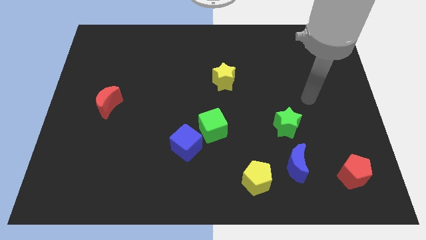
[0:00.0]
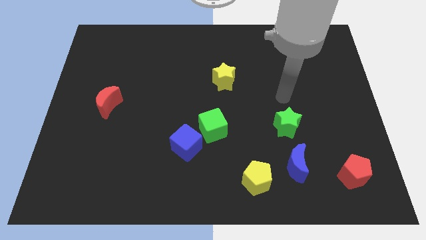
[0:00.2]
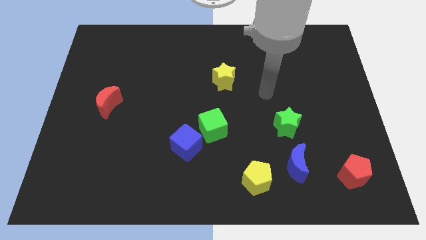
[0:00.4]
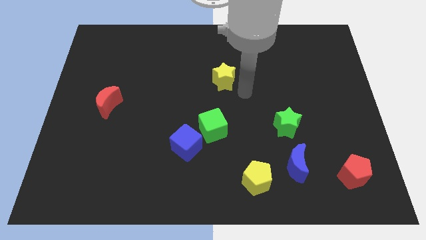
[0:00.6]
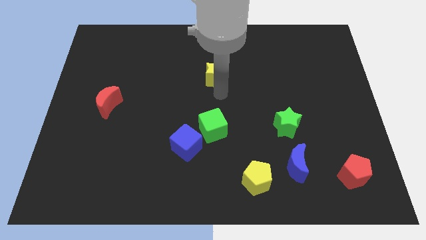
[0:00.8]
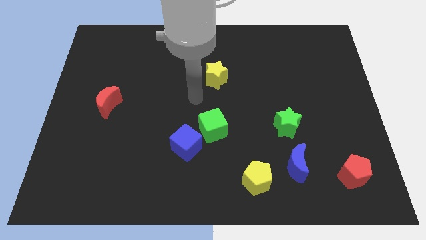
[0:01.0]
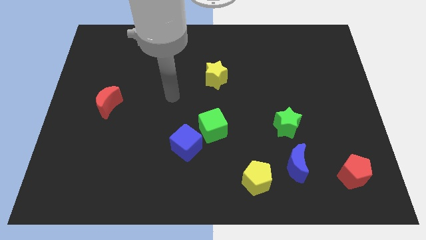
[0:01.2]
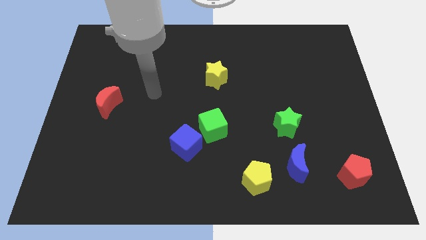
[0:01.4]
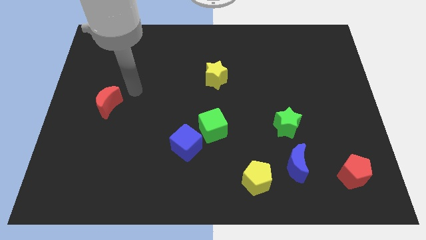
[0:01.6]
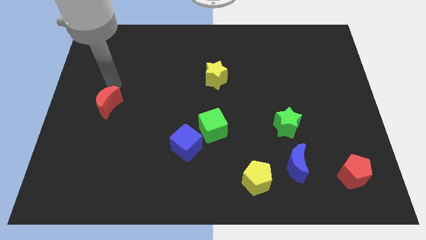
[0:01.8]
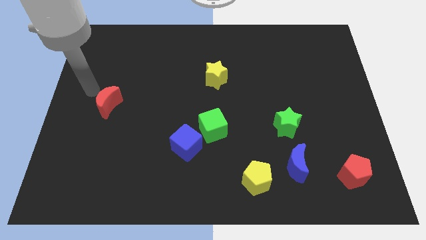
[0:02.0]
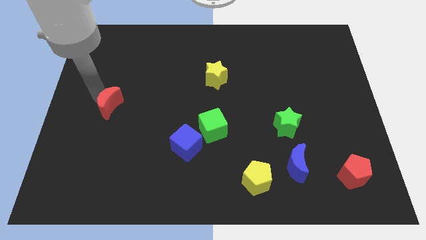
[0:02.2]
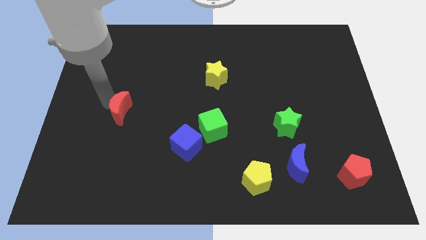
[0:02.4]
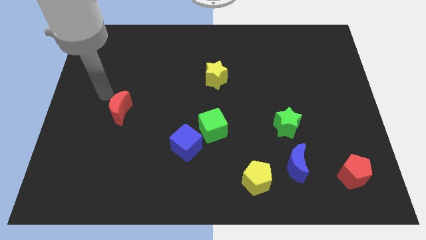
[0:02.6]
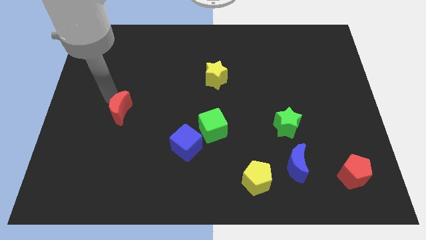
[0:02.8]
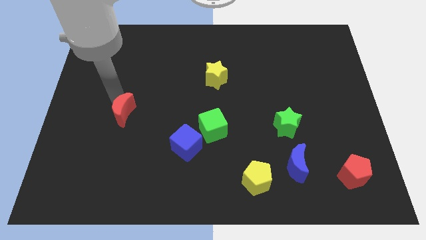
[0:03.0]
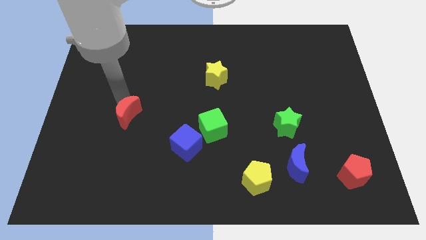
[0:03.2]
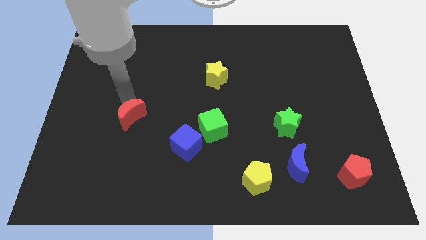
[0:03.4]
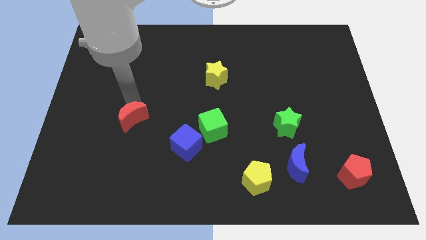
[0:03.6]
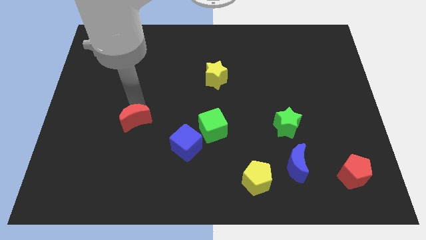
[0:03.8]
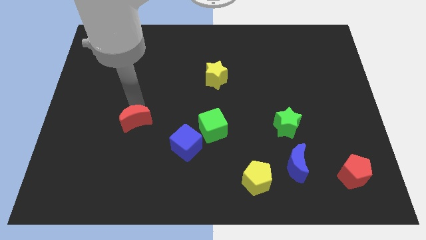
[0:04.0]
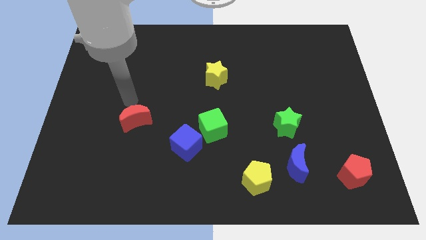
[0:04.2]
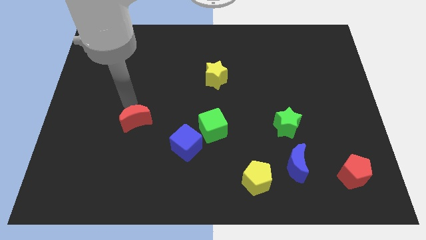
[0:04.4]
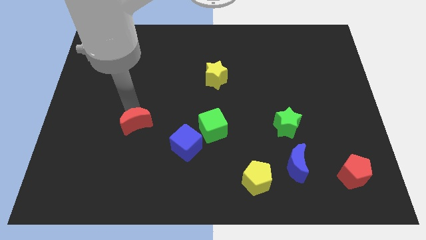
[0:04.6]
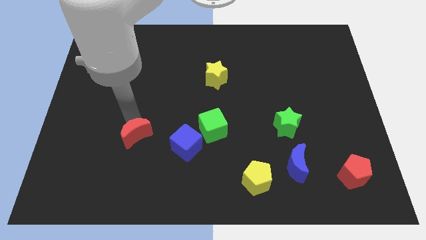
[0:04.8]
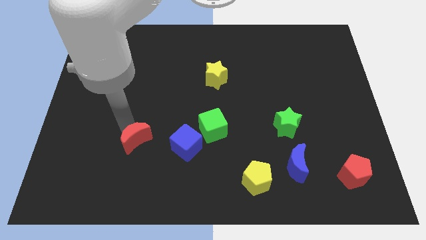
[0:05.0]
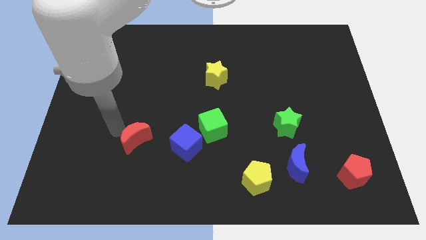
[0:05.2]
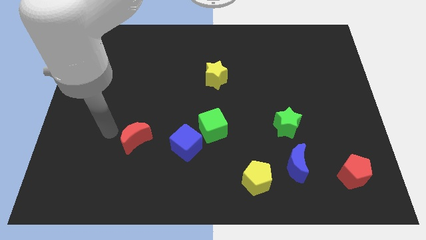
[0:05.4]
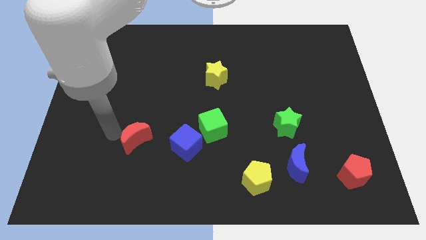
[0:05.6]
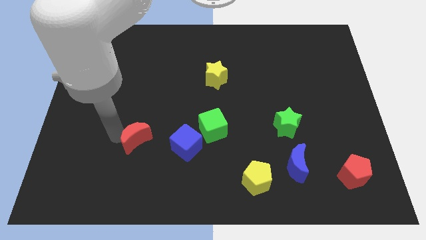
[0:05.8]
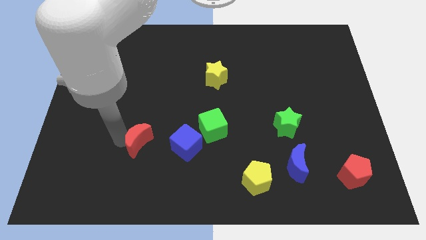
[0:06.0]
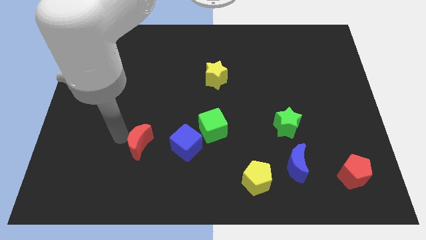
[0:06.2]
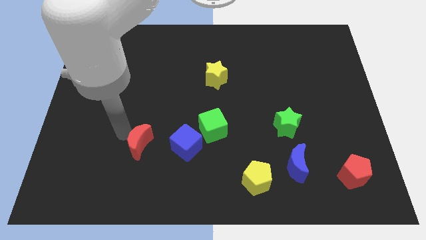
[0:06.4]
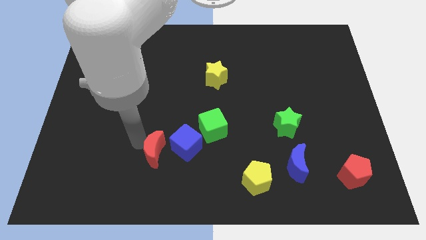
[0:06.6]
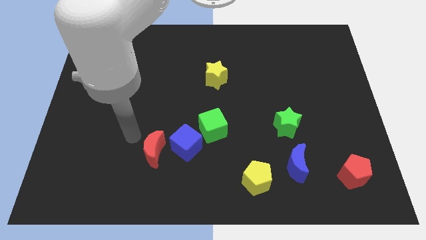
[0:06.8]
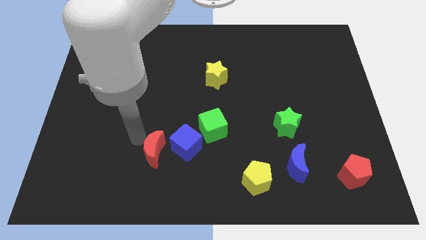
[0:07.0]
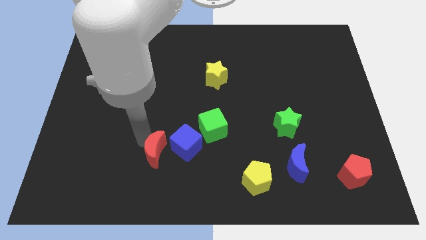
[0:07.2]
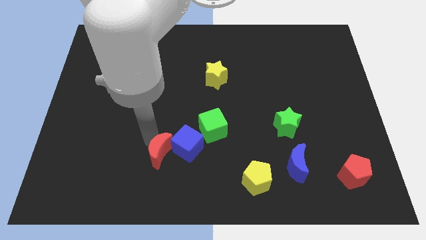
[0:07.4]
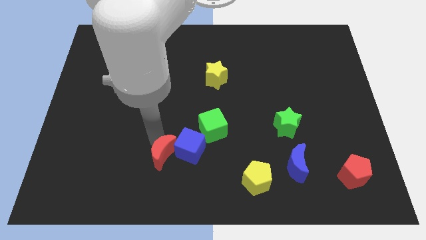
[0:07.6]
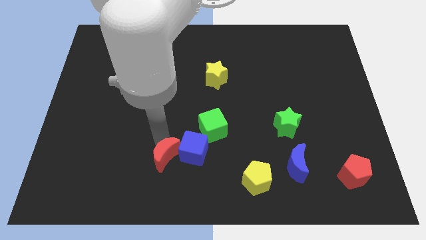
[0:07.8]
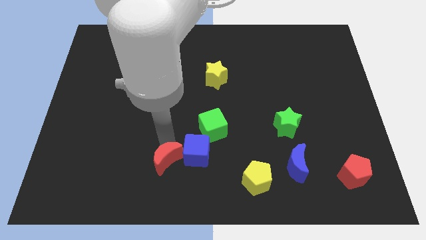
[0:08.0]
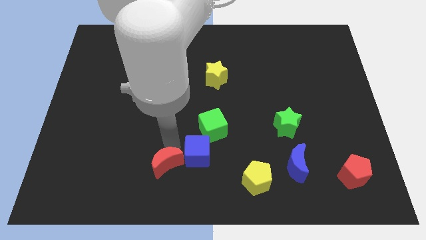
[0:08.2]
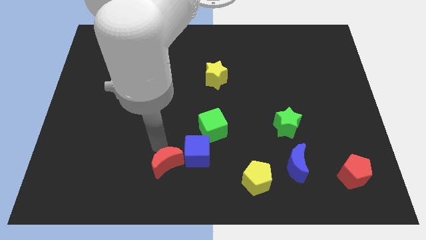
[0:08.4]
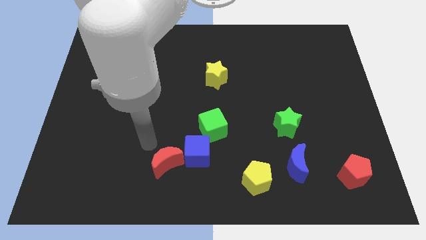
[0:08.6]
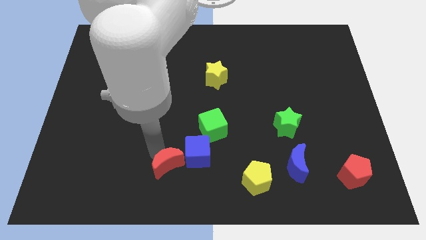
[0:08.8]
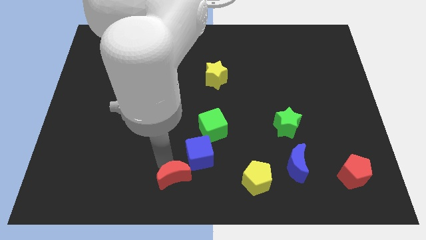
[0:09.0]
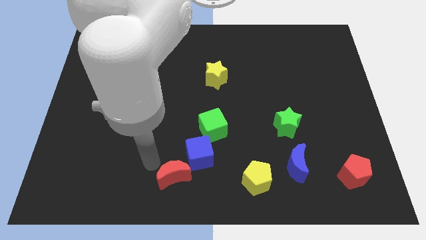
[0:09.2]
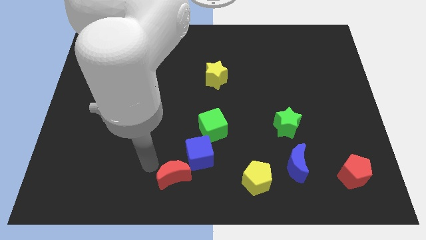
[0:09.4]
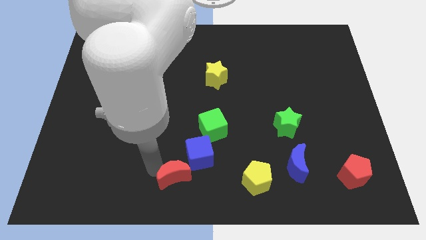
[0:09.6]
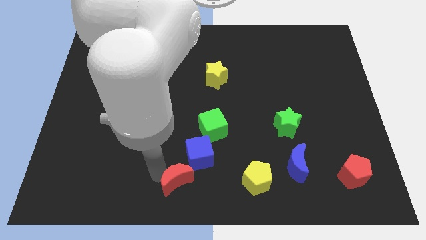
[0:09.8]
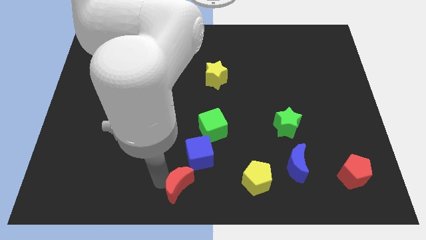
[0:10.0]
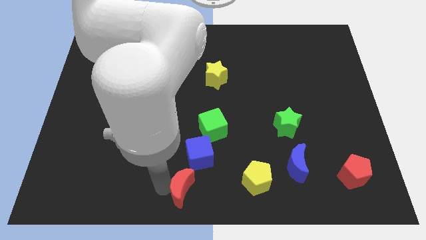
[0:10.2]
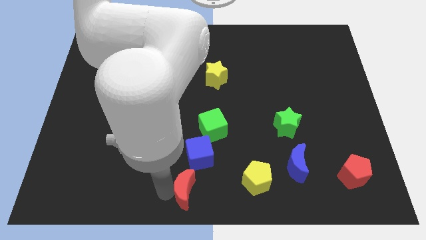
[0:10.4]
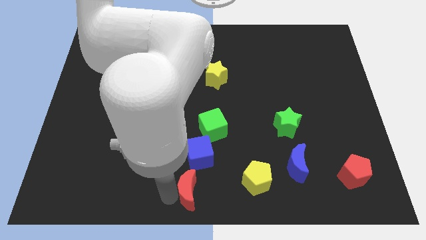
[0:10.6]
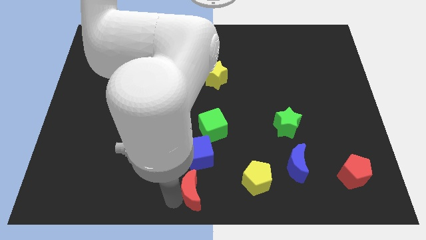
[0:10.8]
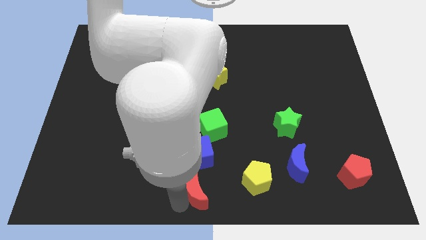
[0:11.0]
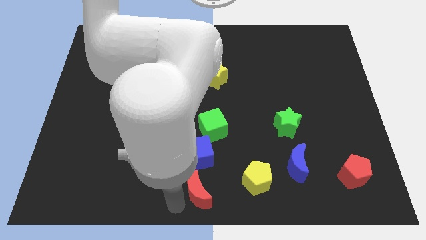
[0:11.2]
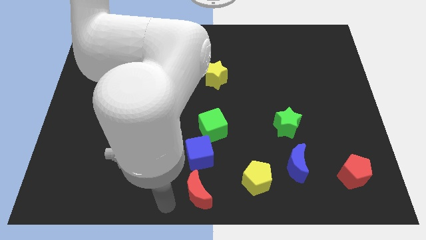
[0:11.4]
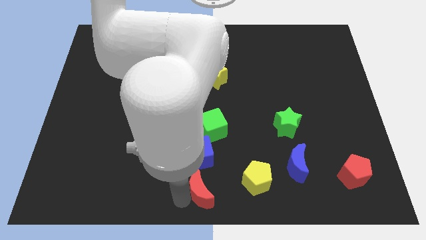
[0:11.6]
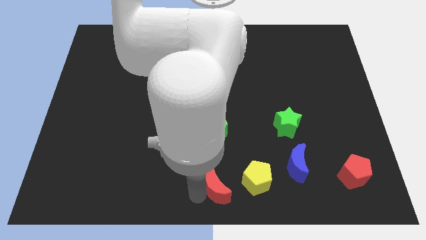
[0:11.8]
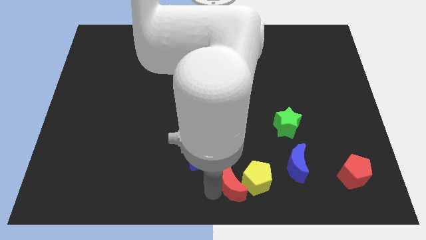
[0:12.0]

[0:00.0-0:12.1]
slide the red moon to the yellow pentagon

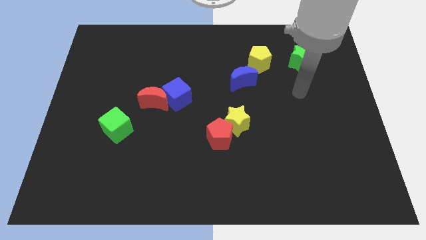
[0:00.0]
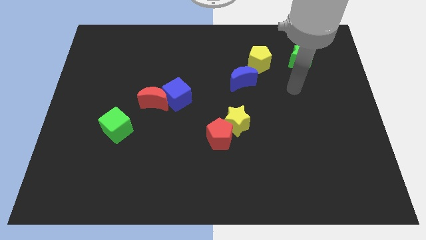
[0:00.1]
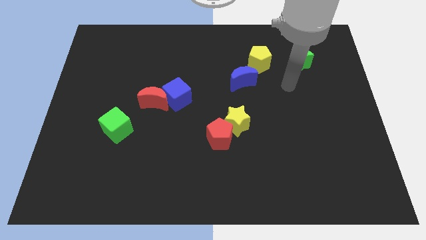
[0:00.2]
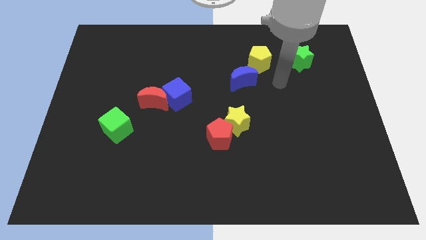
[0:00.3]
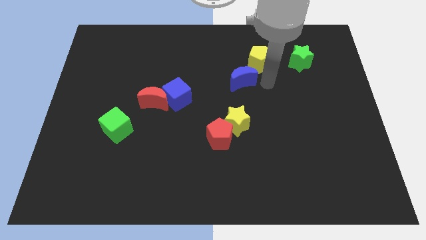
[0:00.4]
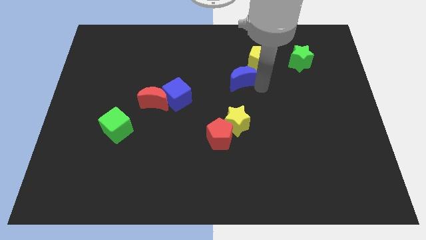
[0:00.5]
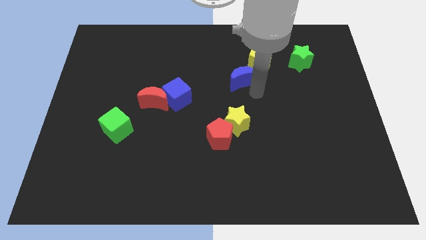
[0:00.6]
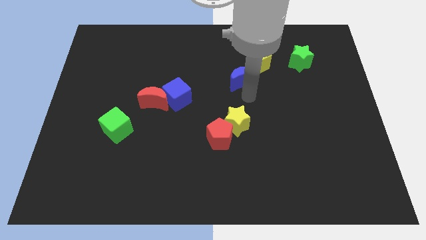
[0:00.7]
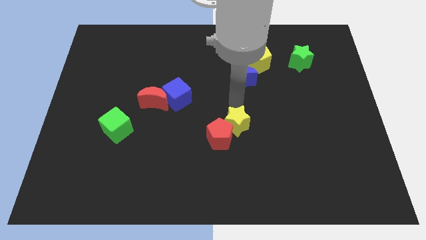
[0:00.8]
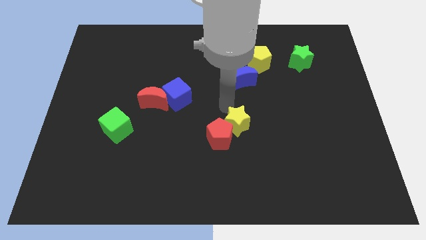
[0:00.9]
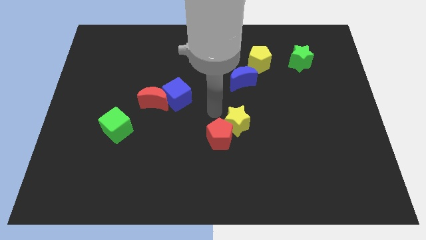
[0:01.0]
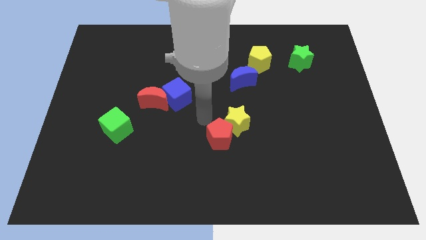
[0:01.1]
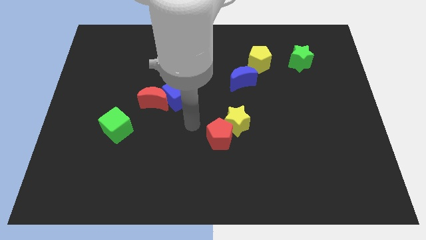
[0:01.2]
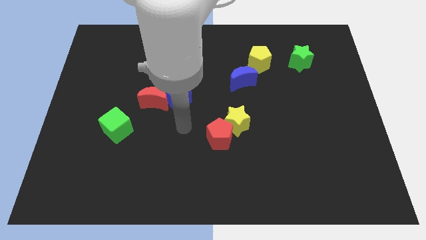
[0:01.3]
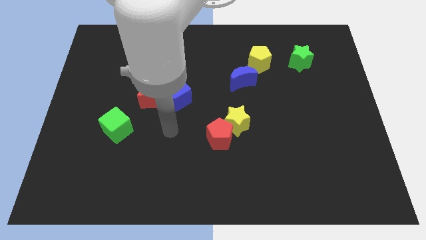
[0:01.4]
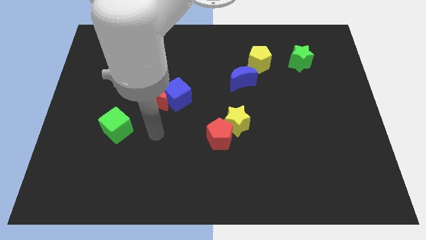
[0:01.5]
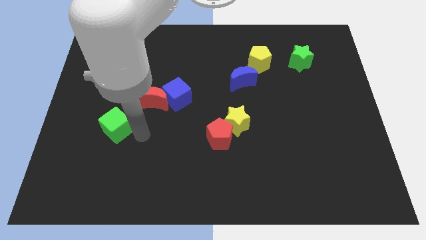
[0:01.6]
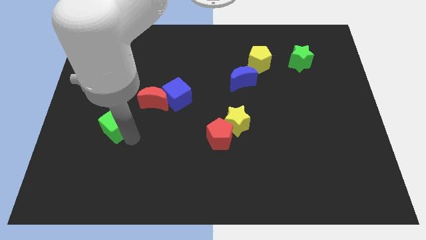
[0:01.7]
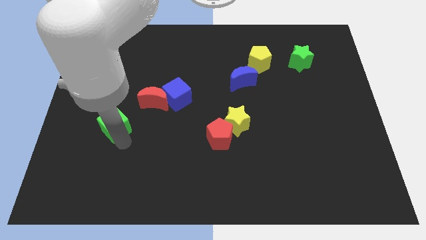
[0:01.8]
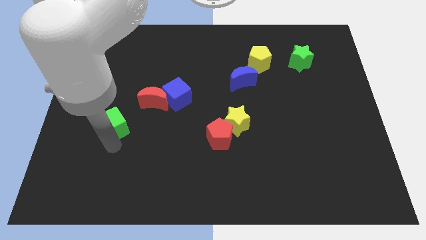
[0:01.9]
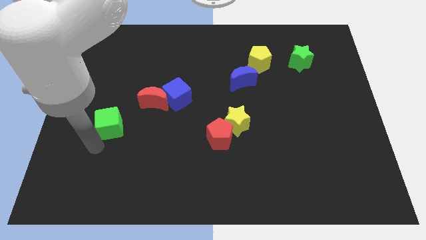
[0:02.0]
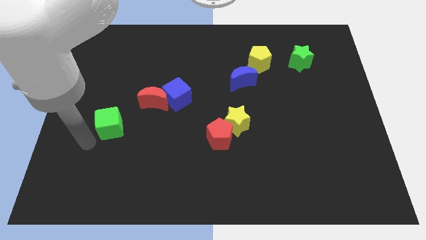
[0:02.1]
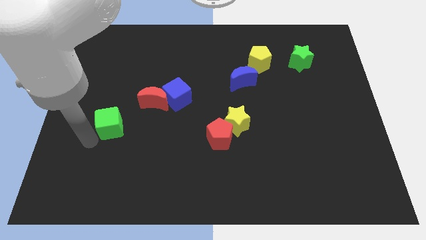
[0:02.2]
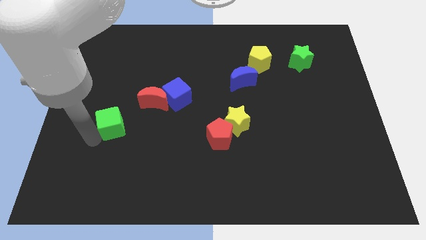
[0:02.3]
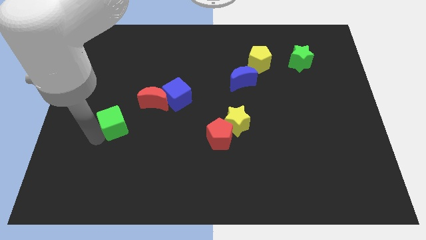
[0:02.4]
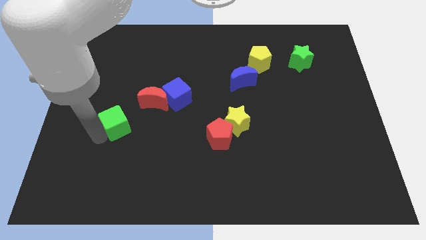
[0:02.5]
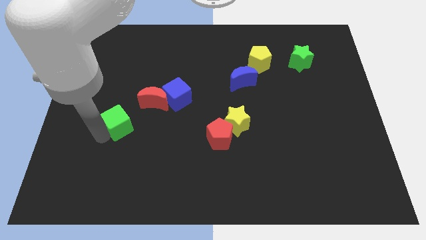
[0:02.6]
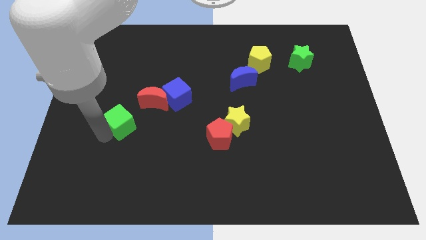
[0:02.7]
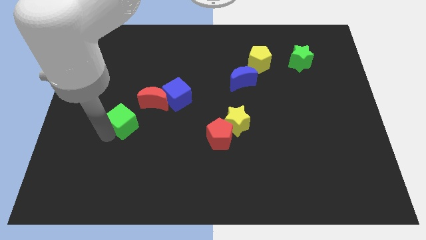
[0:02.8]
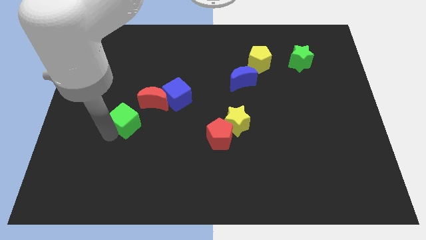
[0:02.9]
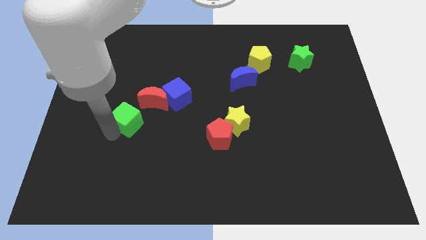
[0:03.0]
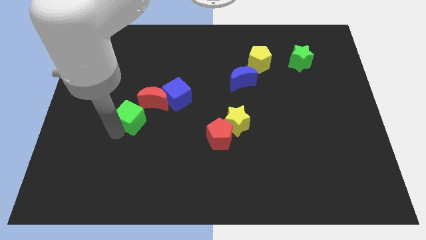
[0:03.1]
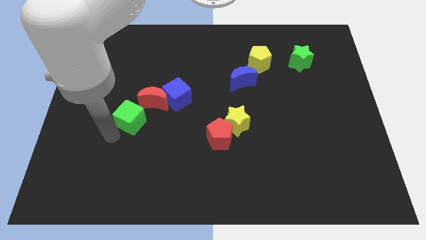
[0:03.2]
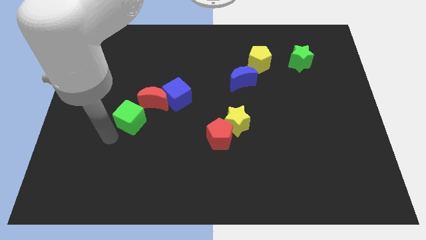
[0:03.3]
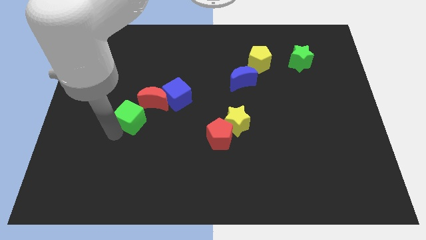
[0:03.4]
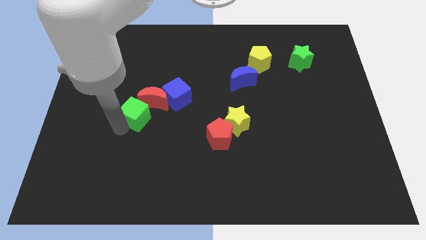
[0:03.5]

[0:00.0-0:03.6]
slide the green cube close to the red moon
